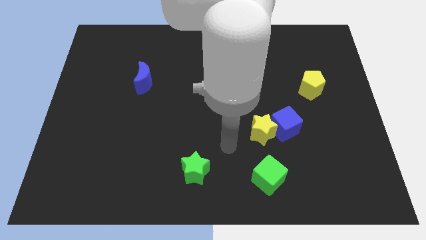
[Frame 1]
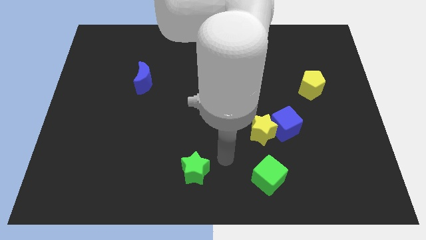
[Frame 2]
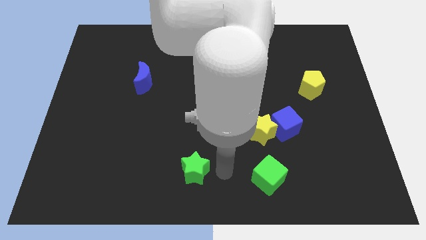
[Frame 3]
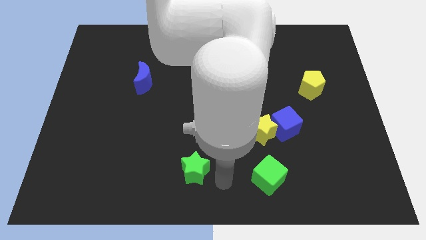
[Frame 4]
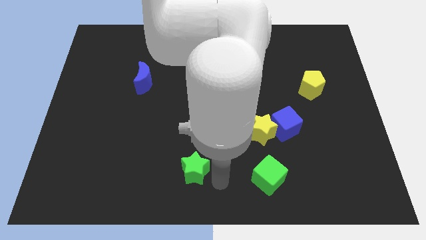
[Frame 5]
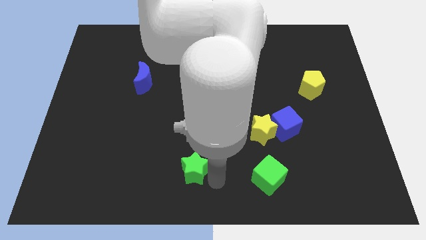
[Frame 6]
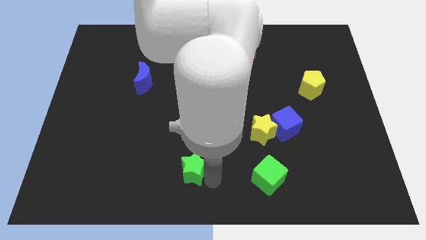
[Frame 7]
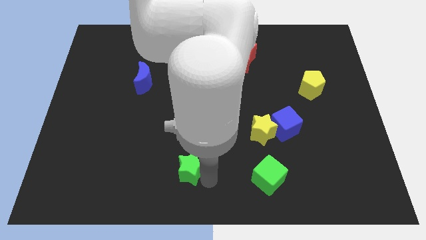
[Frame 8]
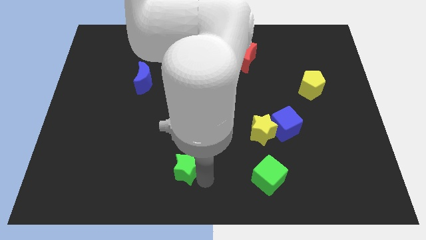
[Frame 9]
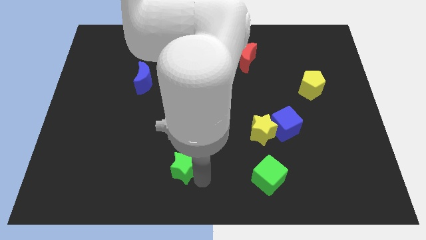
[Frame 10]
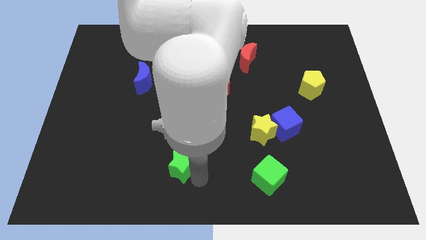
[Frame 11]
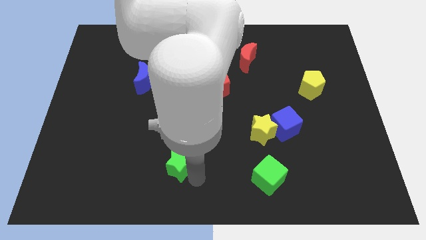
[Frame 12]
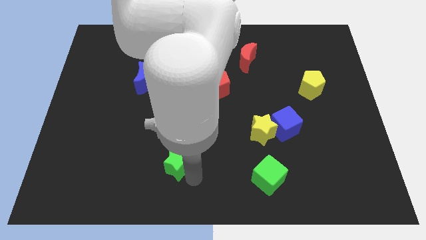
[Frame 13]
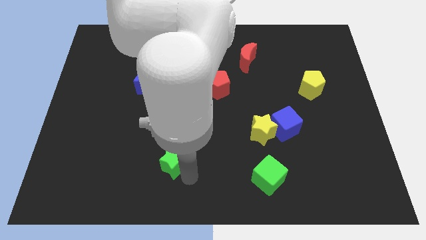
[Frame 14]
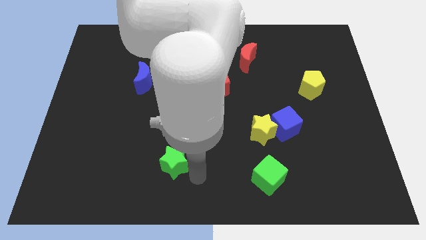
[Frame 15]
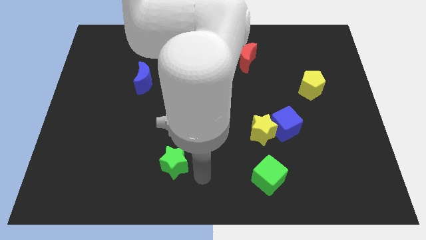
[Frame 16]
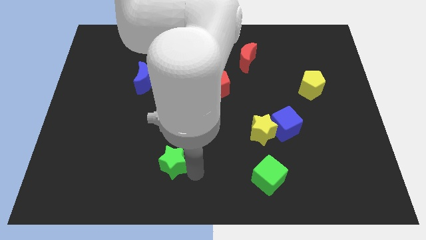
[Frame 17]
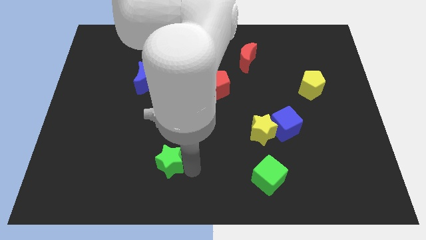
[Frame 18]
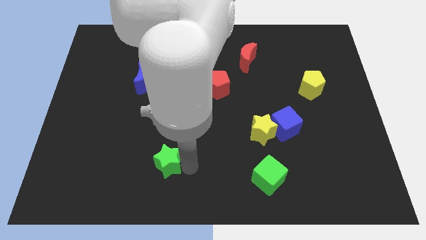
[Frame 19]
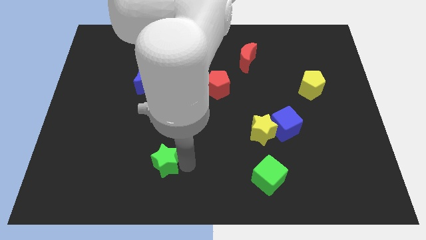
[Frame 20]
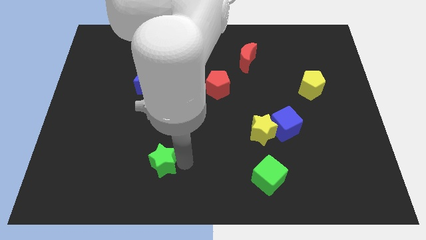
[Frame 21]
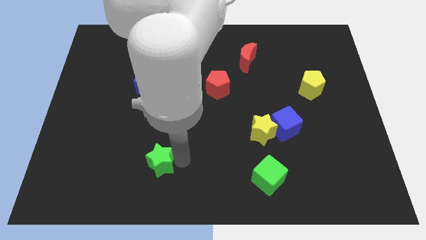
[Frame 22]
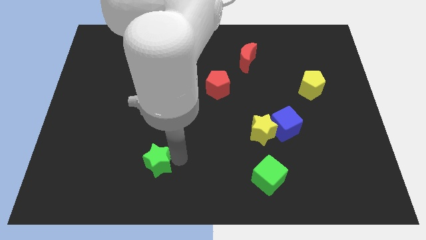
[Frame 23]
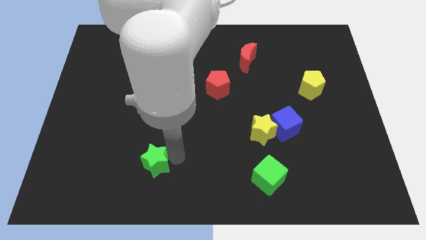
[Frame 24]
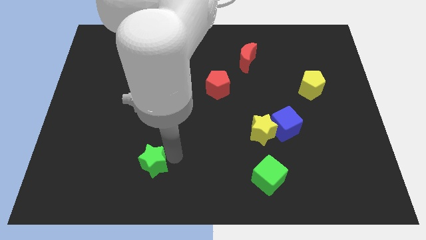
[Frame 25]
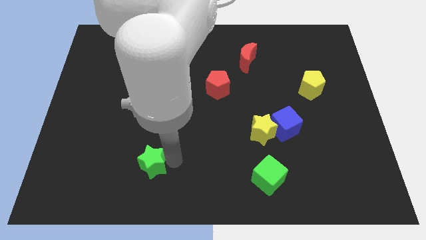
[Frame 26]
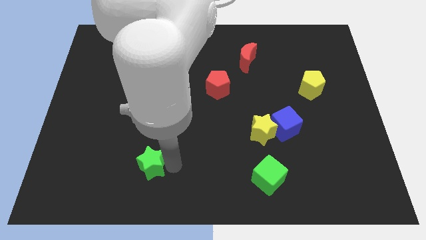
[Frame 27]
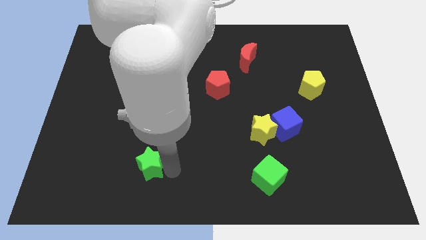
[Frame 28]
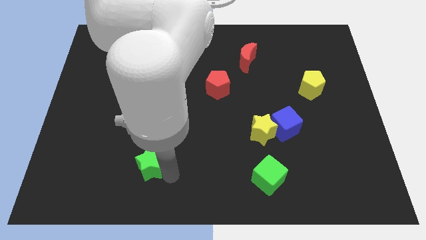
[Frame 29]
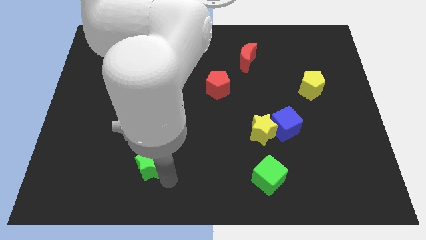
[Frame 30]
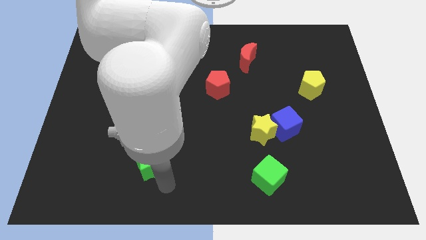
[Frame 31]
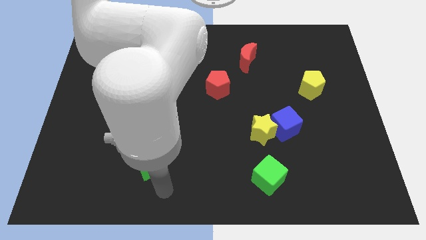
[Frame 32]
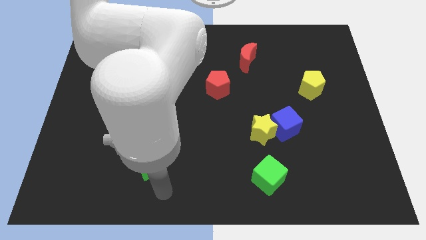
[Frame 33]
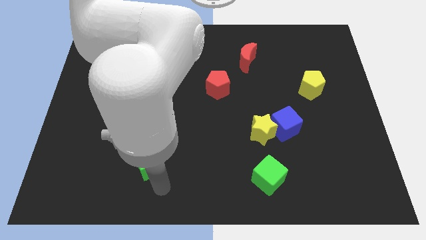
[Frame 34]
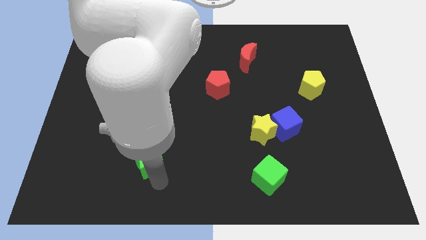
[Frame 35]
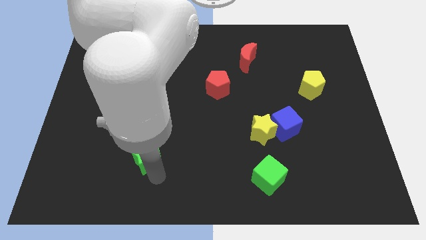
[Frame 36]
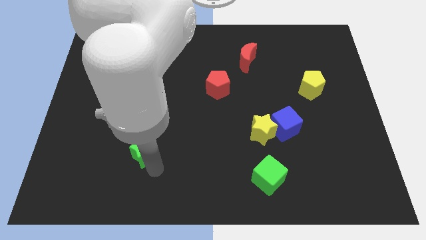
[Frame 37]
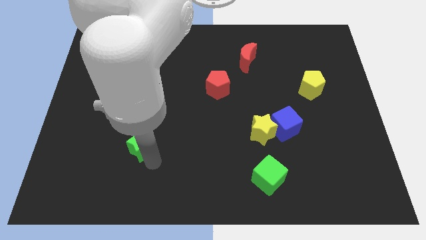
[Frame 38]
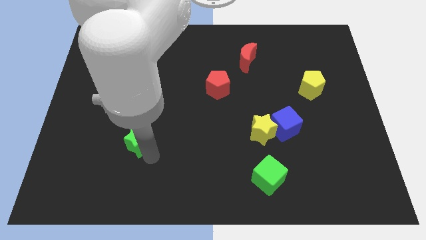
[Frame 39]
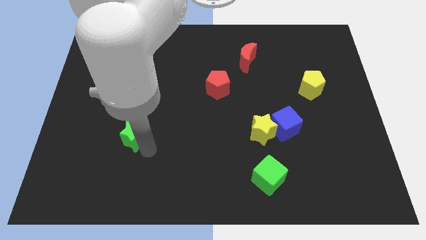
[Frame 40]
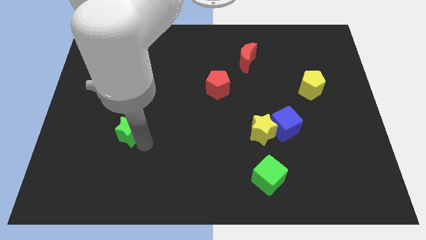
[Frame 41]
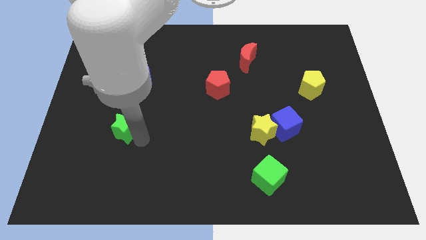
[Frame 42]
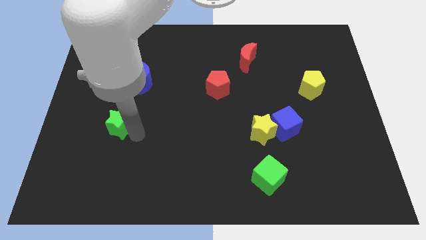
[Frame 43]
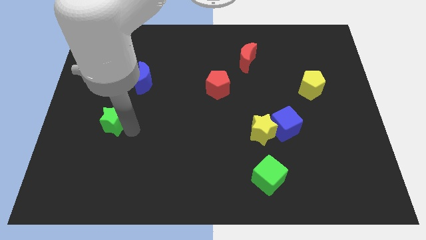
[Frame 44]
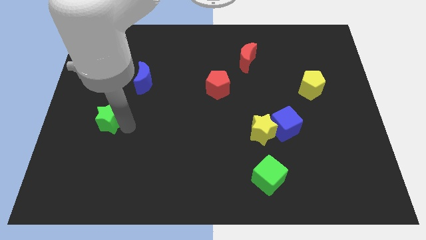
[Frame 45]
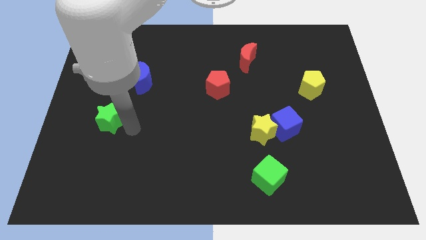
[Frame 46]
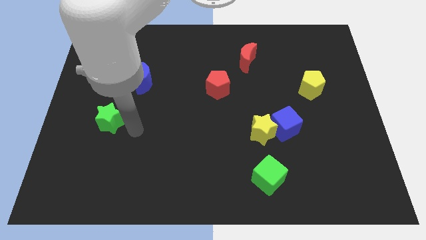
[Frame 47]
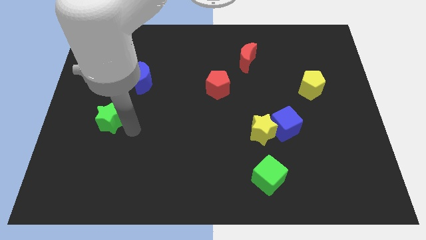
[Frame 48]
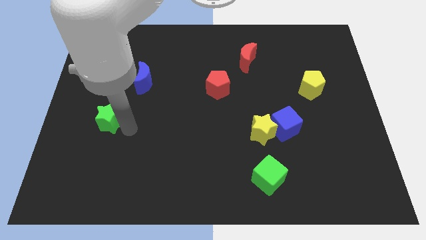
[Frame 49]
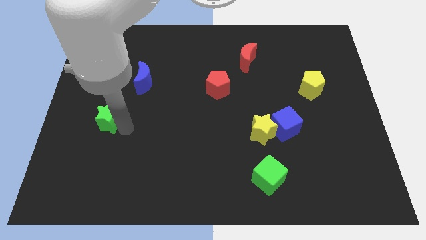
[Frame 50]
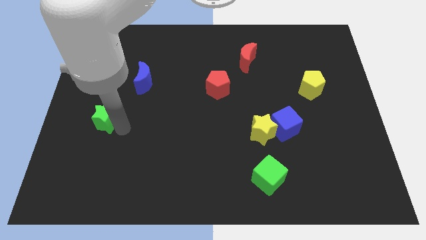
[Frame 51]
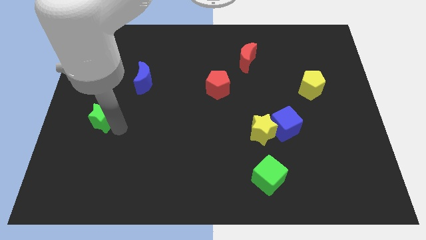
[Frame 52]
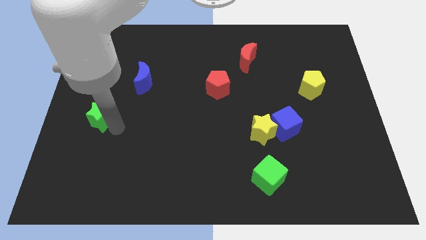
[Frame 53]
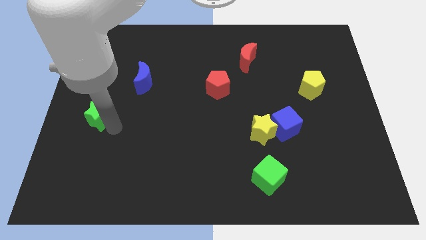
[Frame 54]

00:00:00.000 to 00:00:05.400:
move the green star to the left side

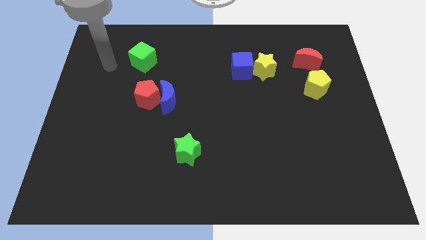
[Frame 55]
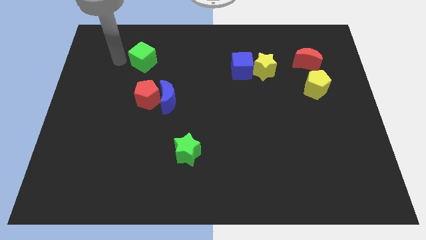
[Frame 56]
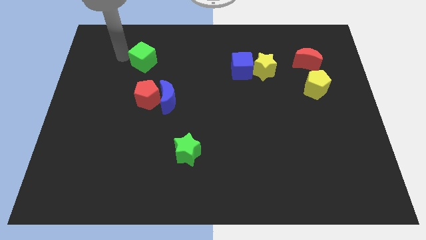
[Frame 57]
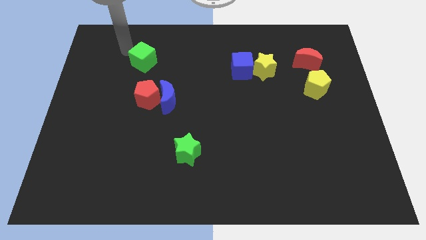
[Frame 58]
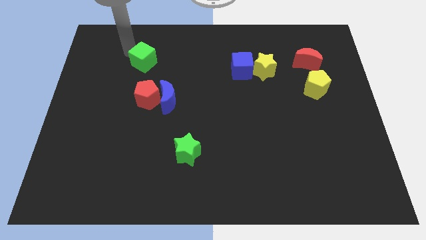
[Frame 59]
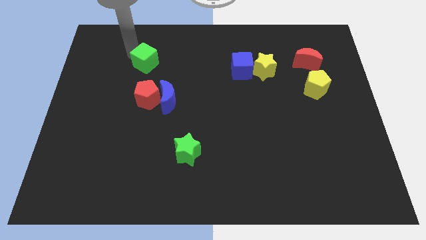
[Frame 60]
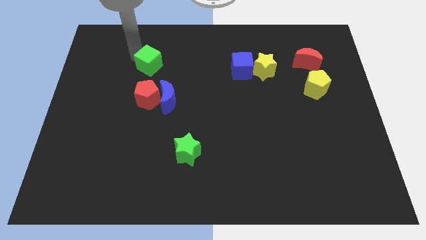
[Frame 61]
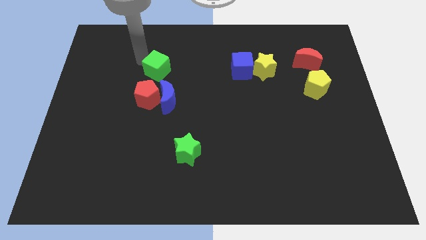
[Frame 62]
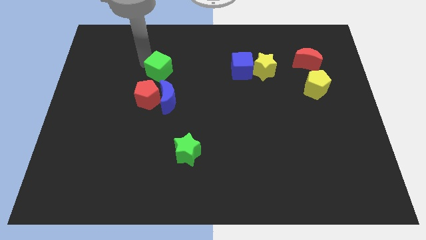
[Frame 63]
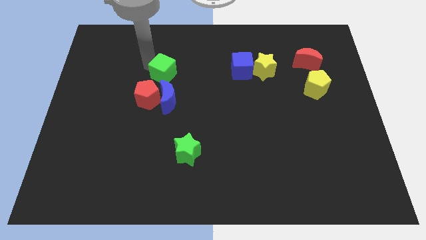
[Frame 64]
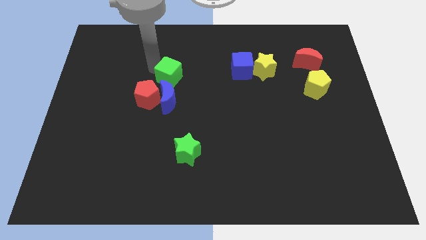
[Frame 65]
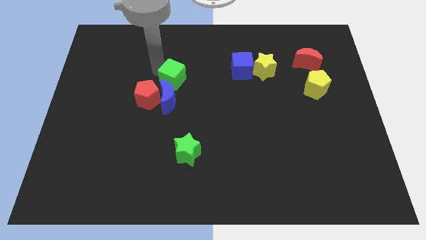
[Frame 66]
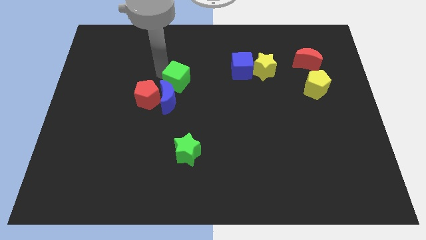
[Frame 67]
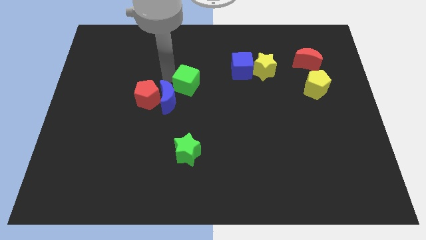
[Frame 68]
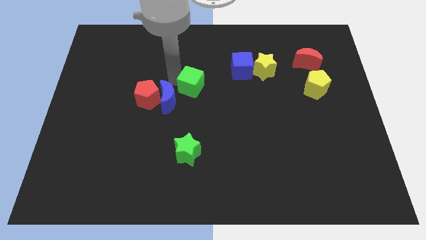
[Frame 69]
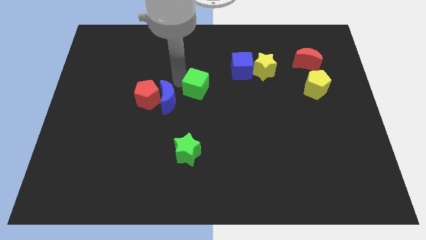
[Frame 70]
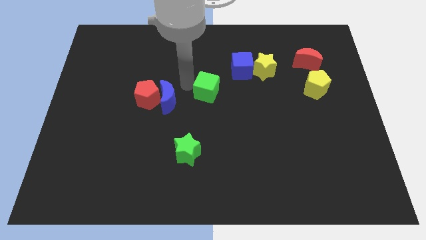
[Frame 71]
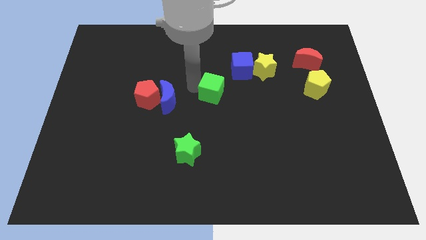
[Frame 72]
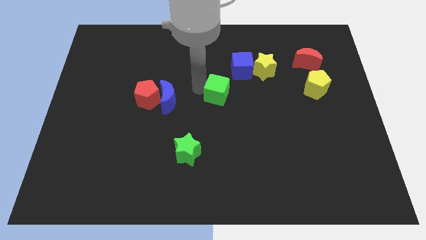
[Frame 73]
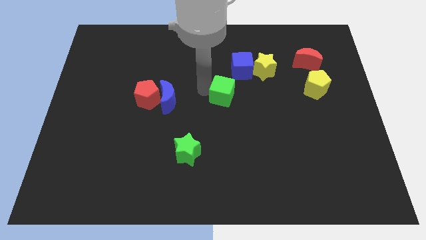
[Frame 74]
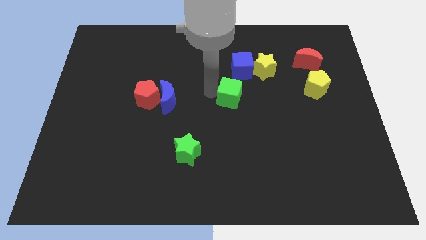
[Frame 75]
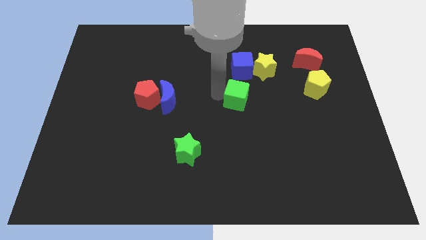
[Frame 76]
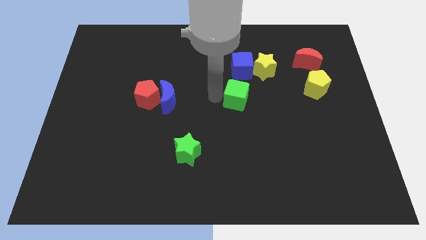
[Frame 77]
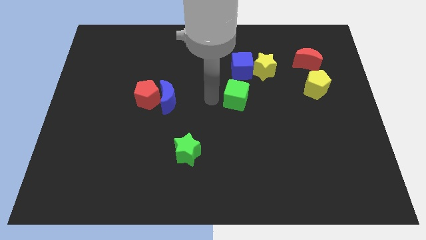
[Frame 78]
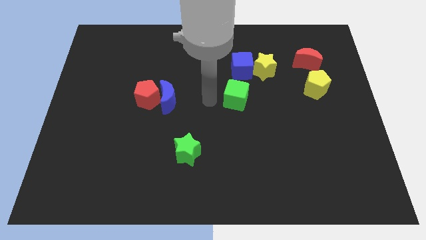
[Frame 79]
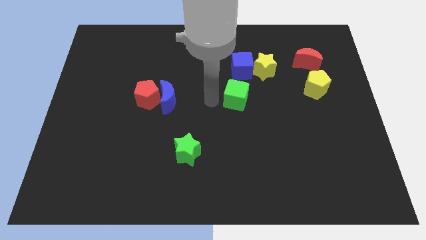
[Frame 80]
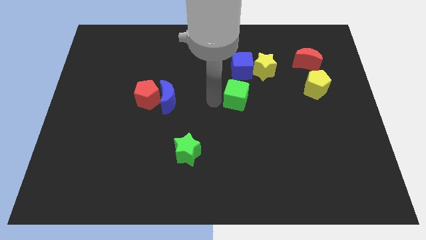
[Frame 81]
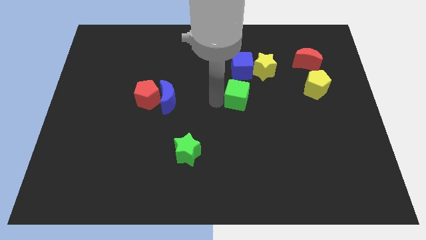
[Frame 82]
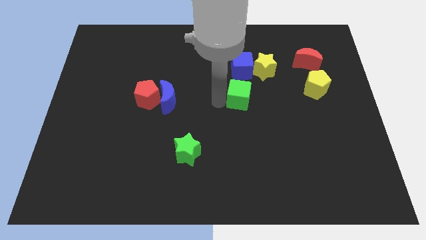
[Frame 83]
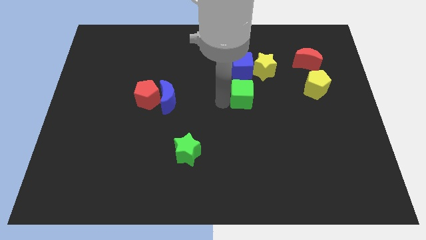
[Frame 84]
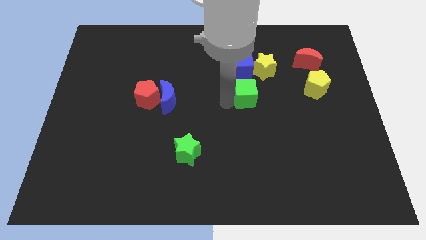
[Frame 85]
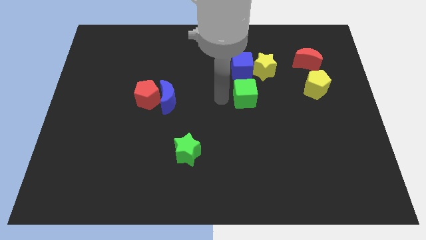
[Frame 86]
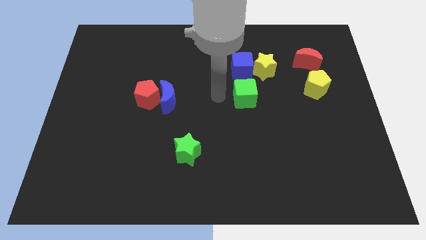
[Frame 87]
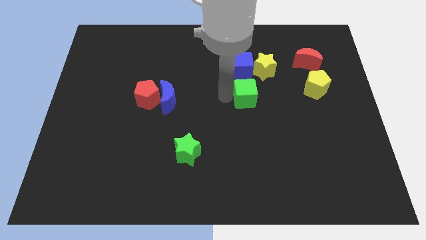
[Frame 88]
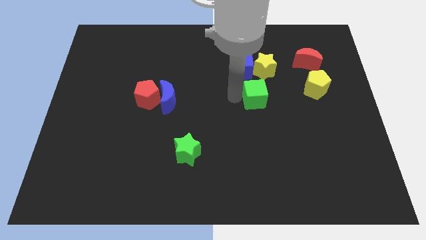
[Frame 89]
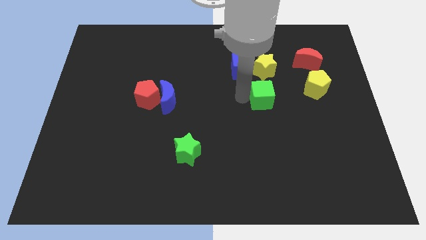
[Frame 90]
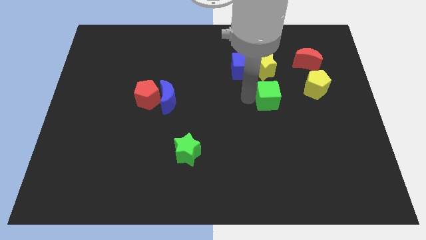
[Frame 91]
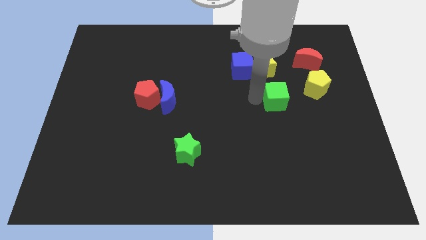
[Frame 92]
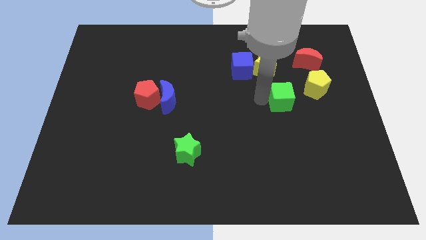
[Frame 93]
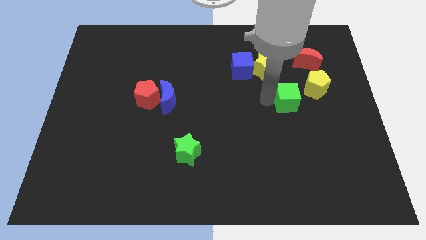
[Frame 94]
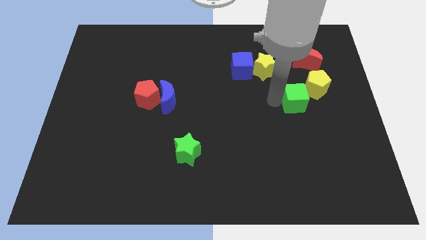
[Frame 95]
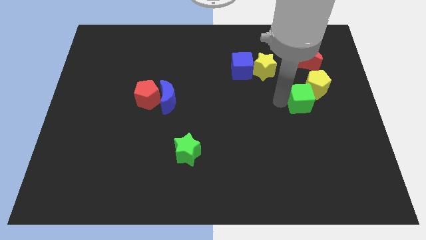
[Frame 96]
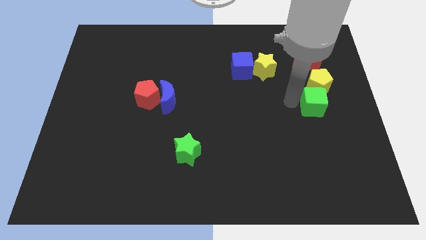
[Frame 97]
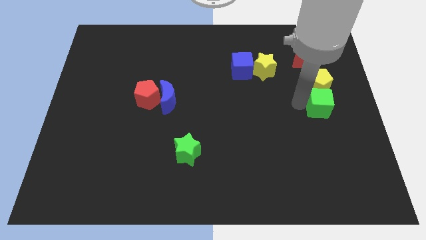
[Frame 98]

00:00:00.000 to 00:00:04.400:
move the green cube to the right side
